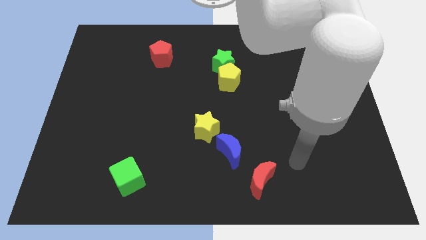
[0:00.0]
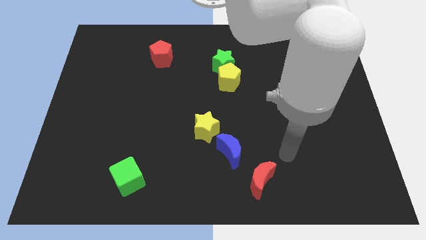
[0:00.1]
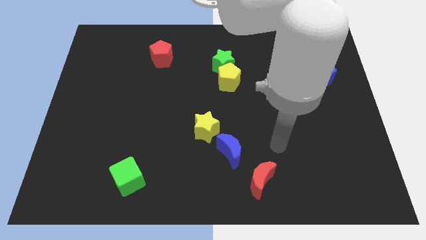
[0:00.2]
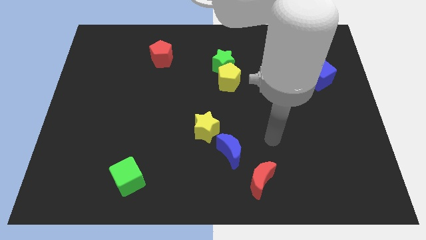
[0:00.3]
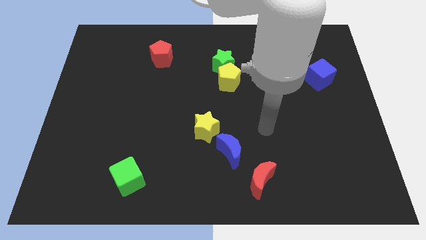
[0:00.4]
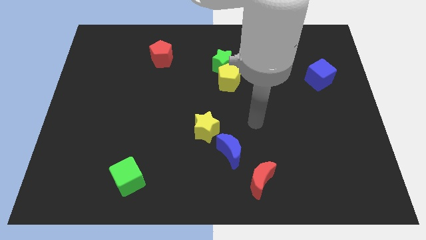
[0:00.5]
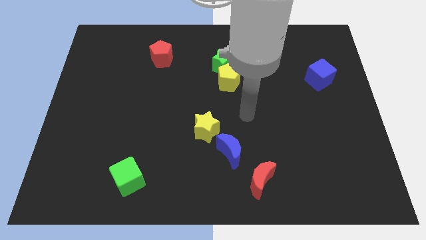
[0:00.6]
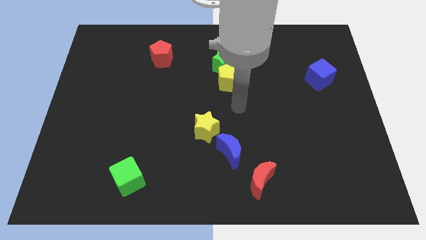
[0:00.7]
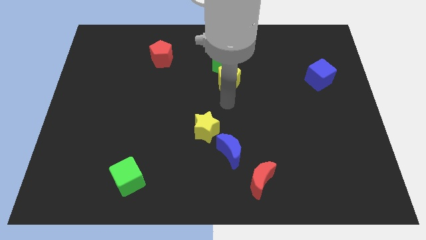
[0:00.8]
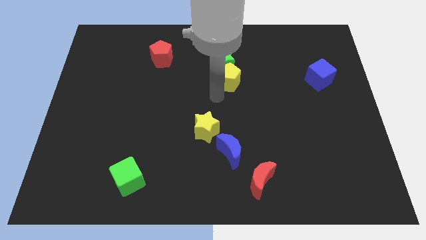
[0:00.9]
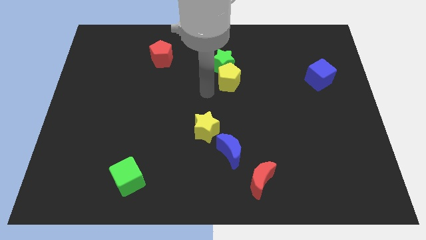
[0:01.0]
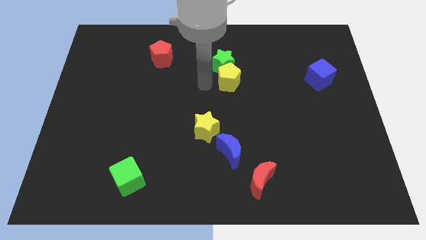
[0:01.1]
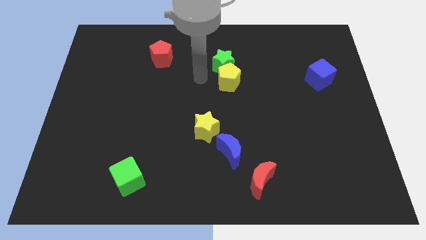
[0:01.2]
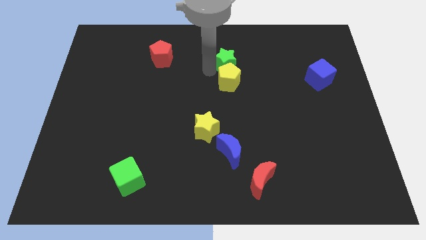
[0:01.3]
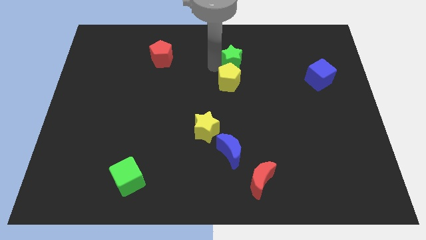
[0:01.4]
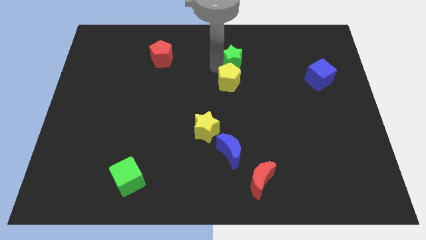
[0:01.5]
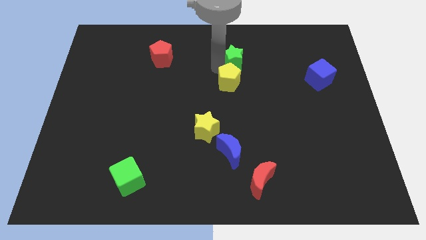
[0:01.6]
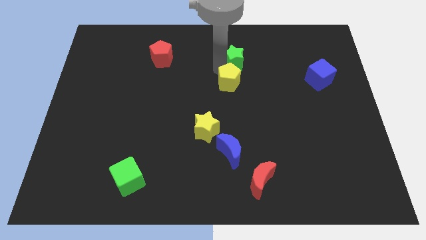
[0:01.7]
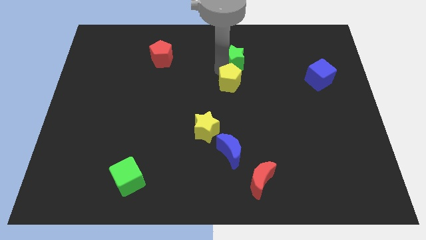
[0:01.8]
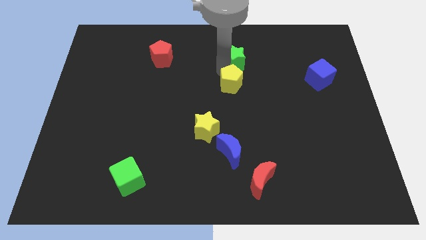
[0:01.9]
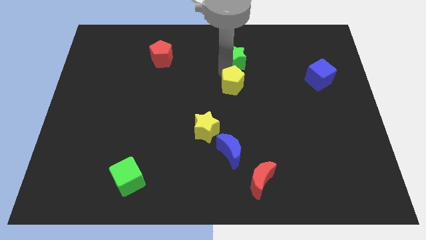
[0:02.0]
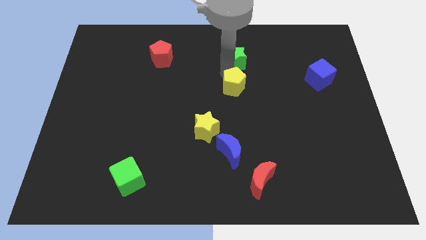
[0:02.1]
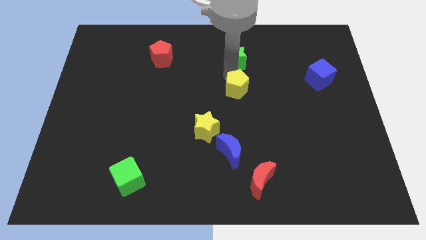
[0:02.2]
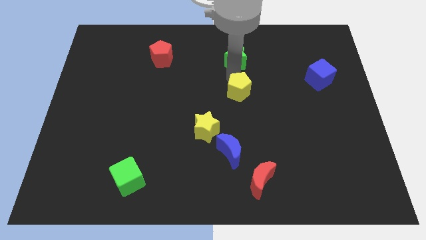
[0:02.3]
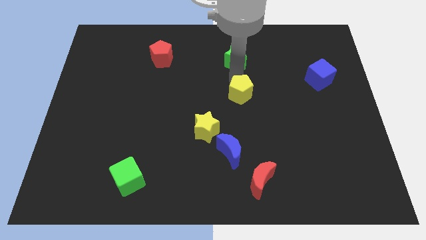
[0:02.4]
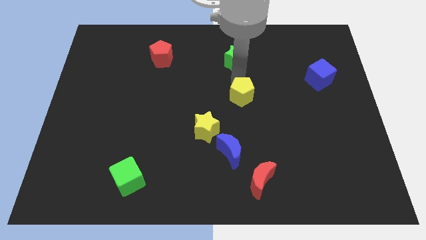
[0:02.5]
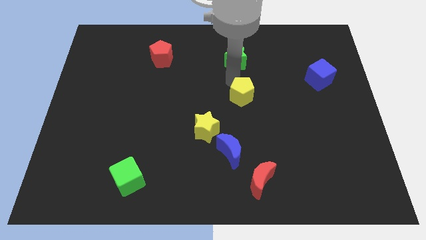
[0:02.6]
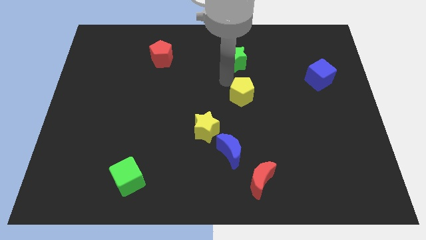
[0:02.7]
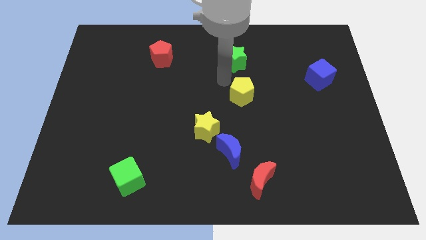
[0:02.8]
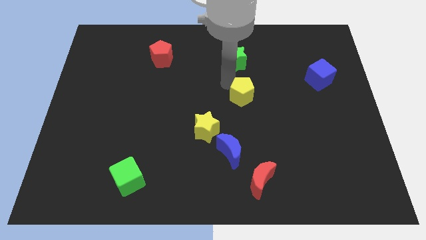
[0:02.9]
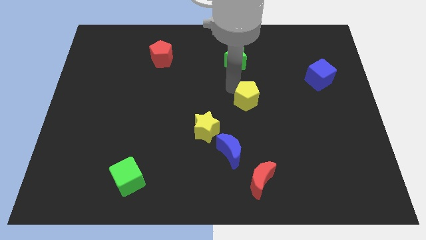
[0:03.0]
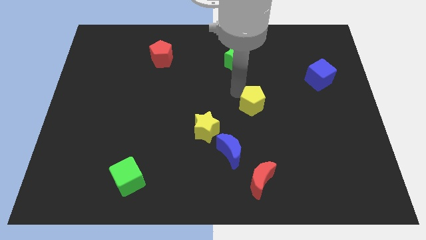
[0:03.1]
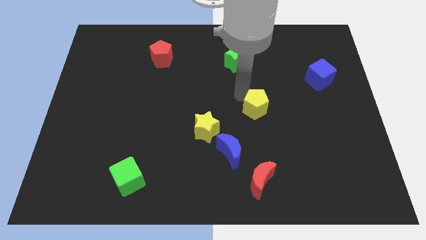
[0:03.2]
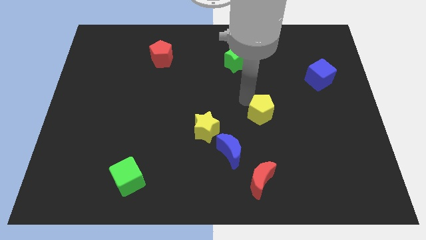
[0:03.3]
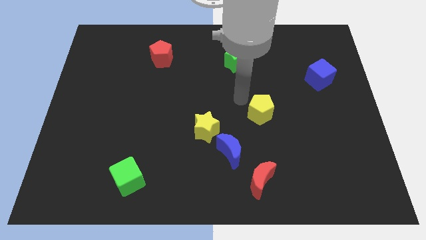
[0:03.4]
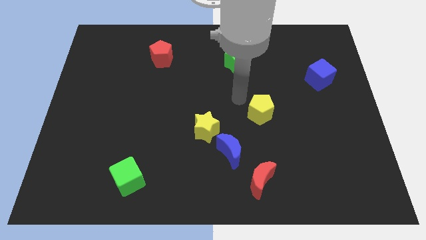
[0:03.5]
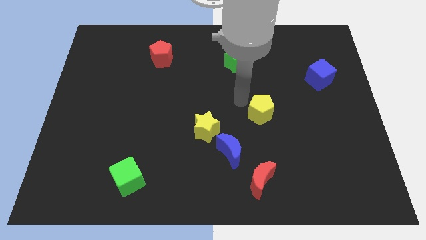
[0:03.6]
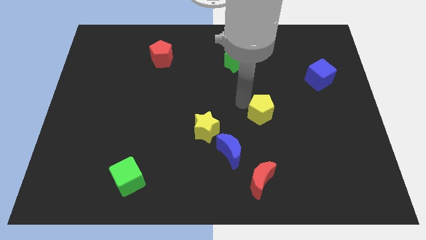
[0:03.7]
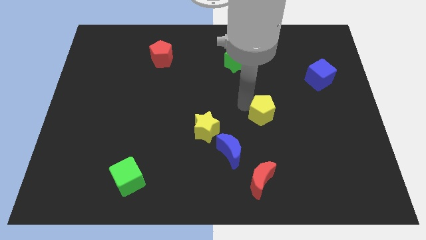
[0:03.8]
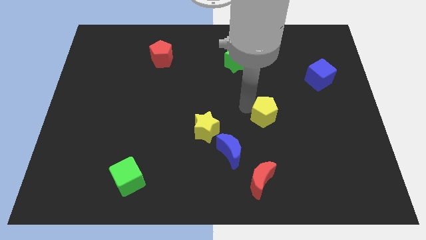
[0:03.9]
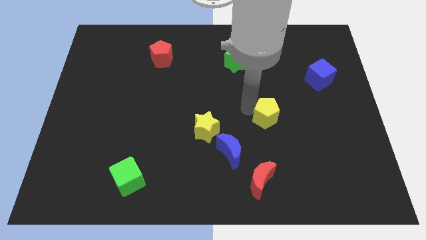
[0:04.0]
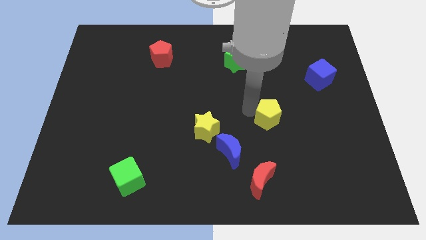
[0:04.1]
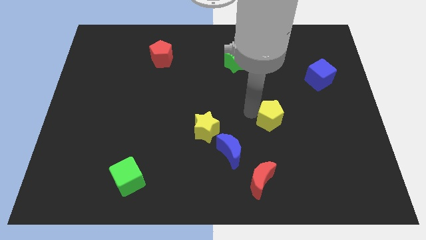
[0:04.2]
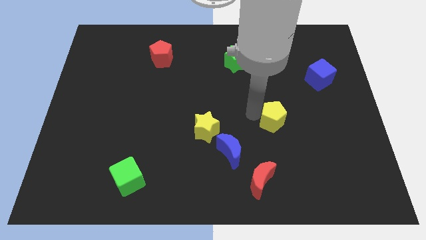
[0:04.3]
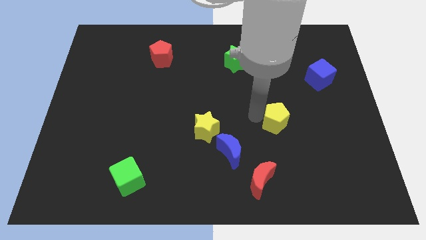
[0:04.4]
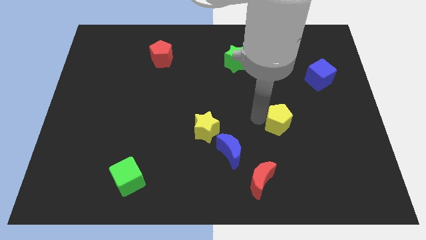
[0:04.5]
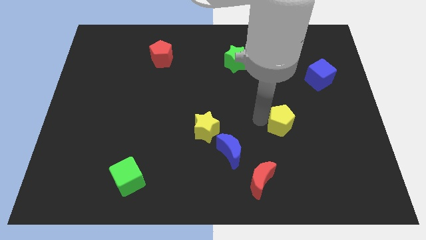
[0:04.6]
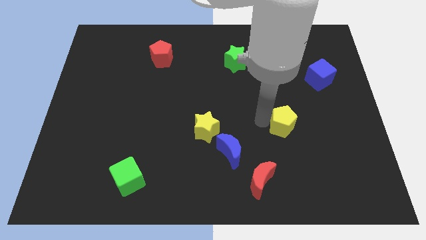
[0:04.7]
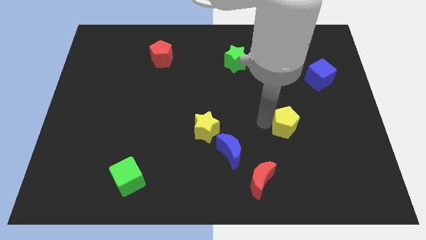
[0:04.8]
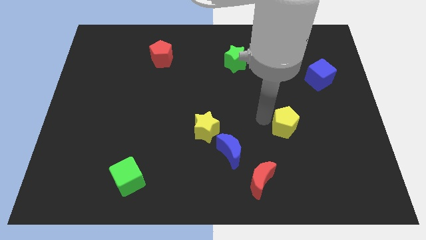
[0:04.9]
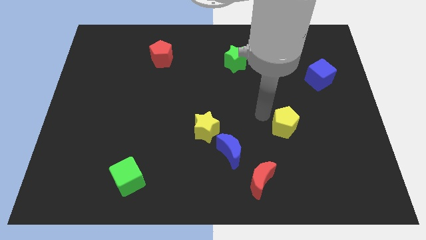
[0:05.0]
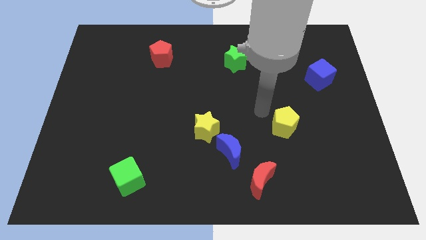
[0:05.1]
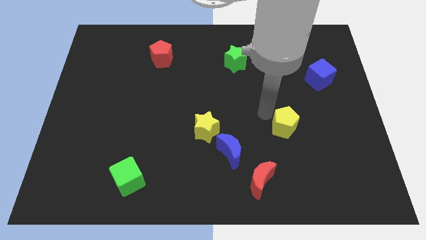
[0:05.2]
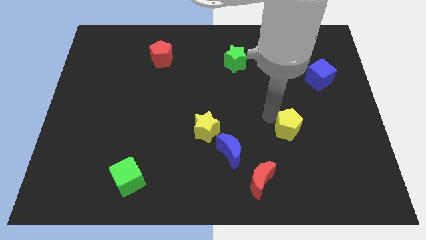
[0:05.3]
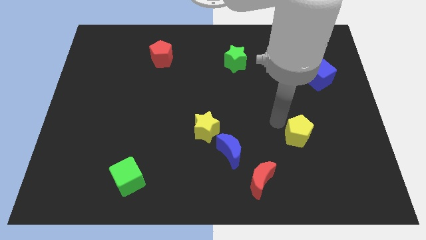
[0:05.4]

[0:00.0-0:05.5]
move the yellow pentagon down and then right

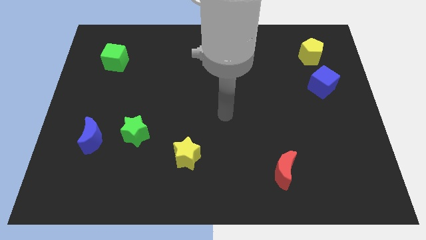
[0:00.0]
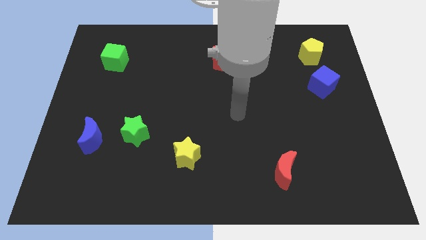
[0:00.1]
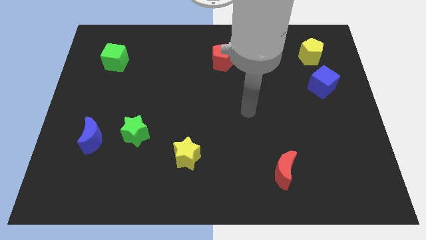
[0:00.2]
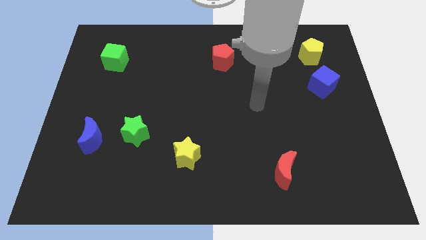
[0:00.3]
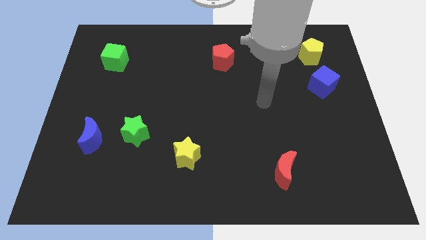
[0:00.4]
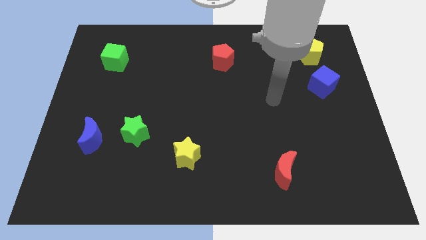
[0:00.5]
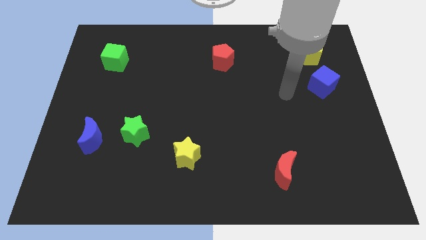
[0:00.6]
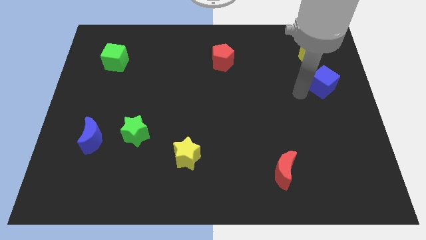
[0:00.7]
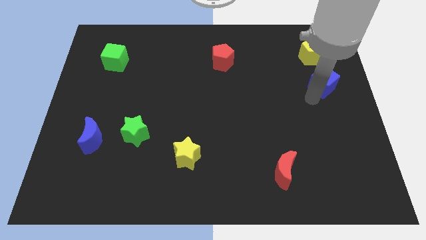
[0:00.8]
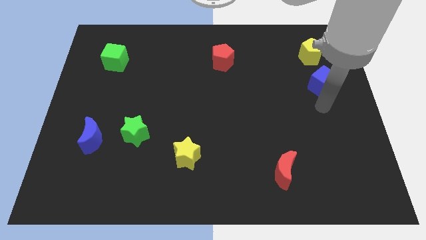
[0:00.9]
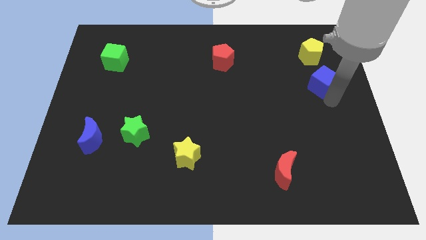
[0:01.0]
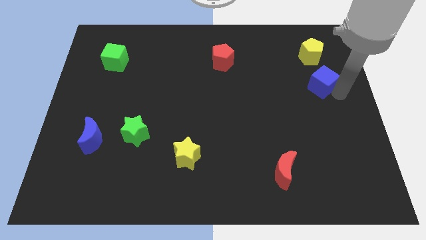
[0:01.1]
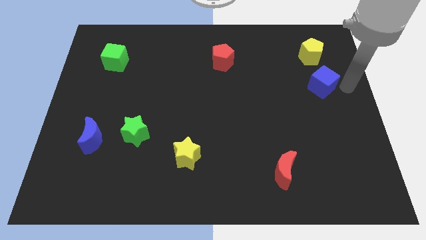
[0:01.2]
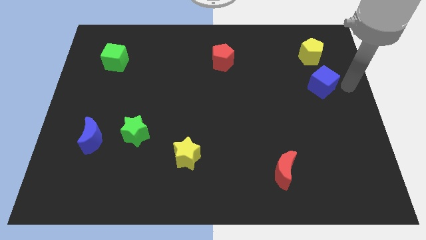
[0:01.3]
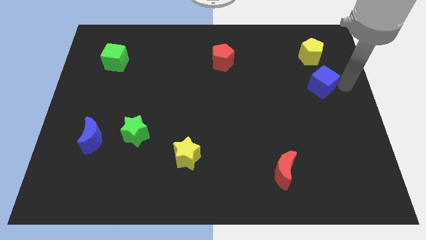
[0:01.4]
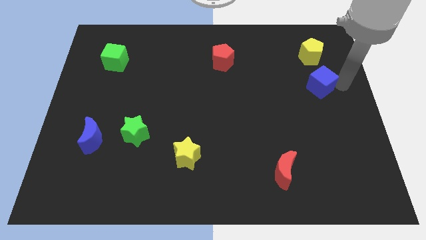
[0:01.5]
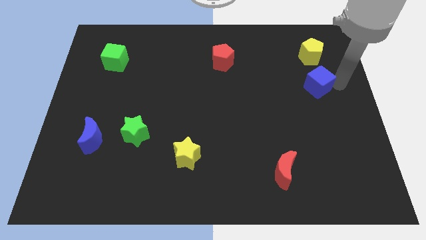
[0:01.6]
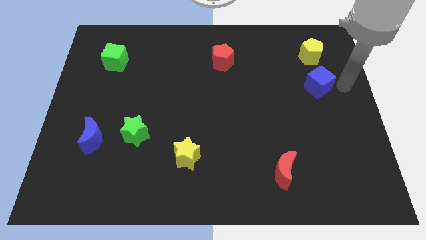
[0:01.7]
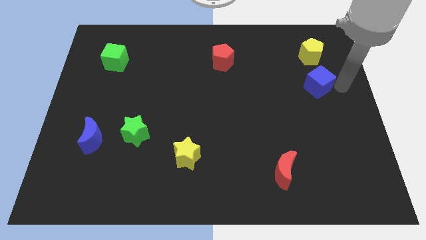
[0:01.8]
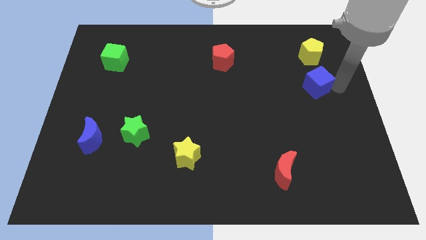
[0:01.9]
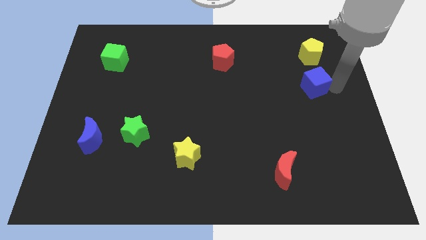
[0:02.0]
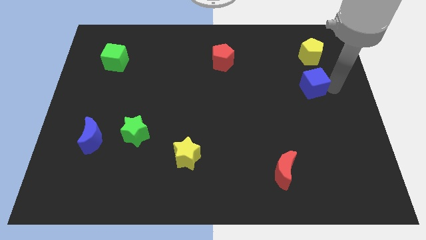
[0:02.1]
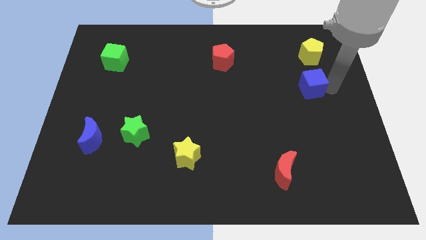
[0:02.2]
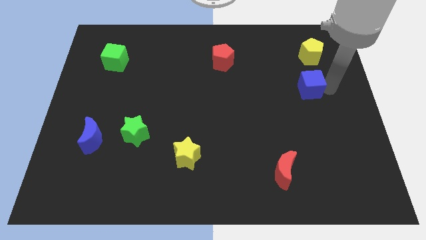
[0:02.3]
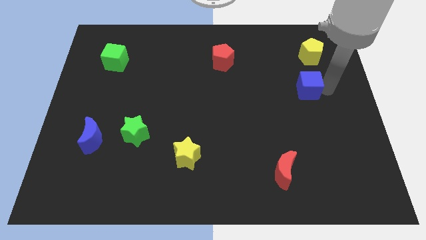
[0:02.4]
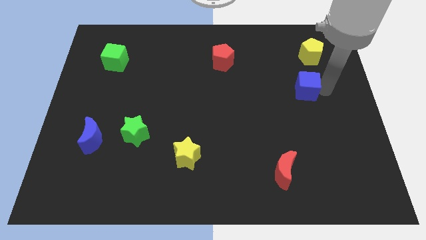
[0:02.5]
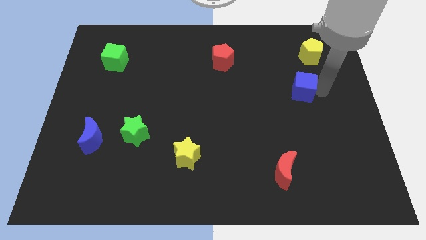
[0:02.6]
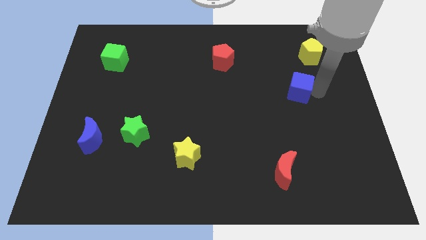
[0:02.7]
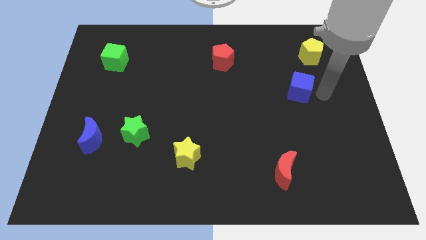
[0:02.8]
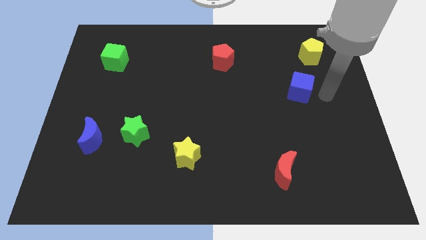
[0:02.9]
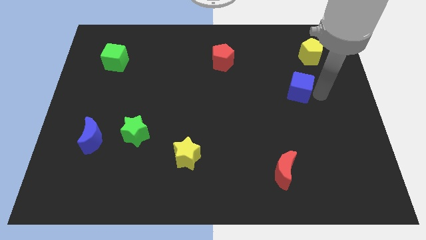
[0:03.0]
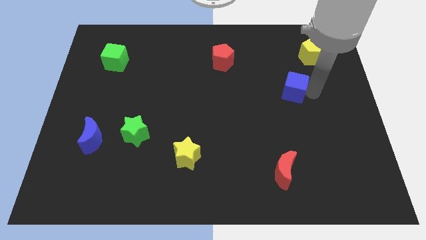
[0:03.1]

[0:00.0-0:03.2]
slightly push the blue cube to the left
